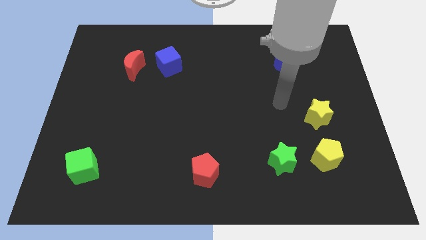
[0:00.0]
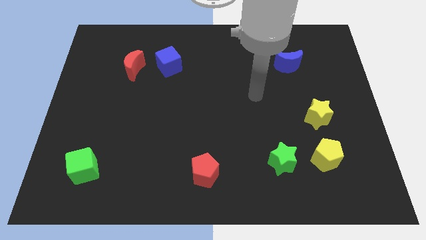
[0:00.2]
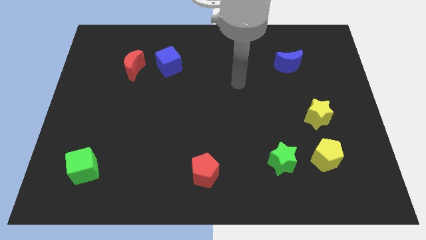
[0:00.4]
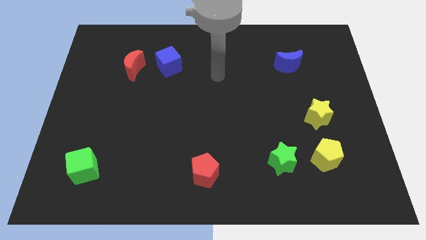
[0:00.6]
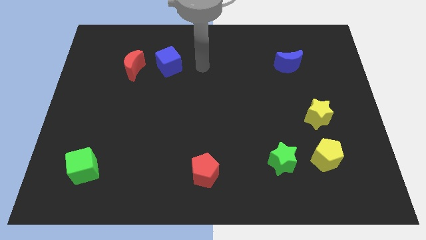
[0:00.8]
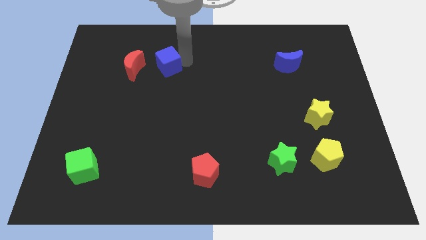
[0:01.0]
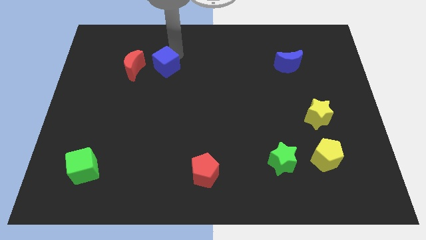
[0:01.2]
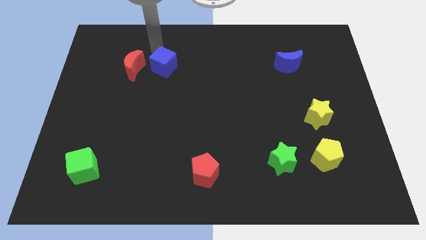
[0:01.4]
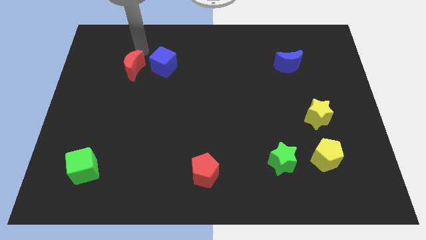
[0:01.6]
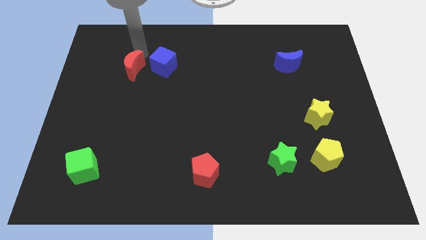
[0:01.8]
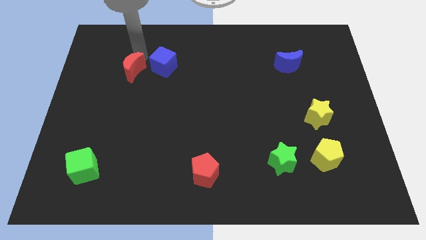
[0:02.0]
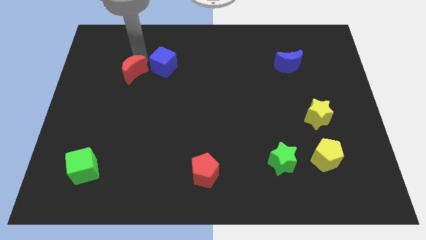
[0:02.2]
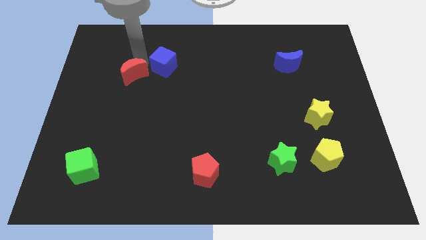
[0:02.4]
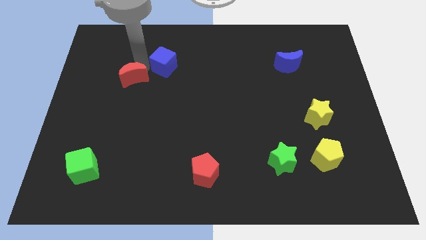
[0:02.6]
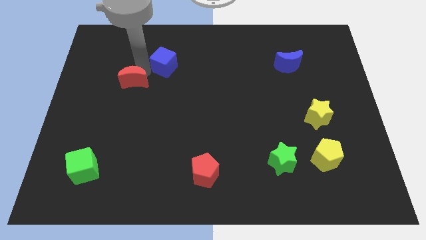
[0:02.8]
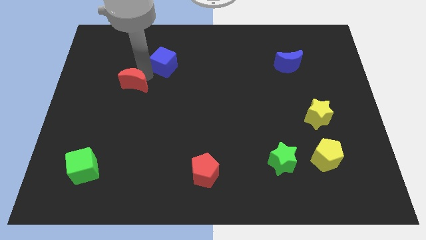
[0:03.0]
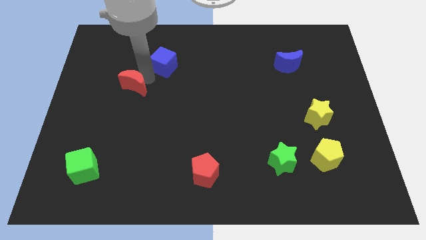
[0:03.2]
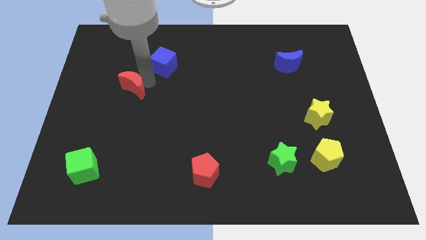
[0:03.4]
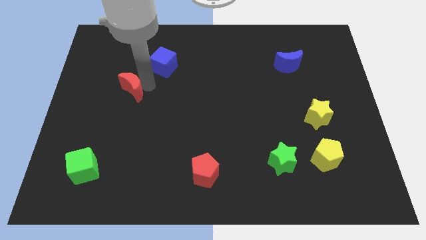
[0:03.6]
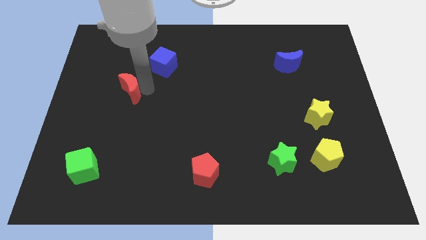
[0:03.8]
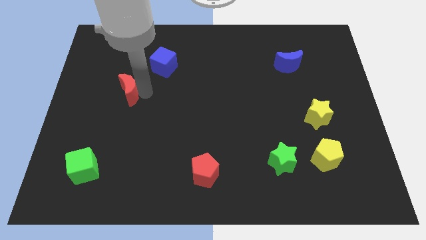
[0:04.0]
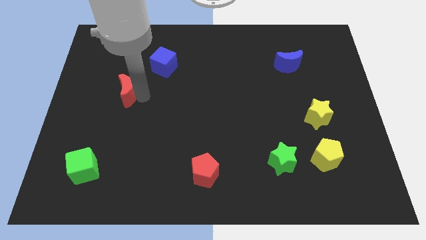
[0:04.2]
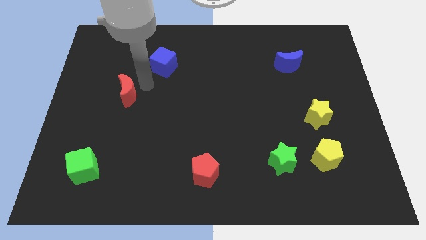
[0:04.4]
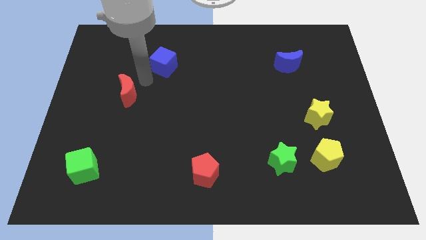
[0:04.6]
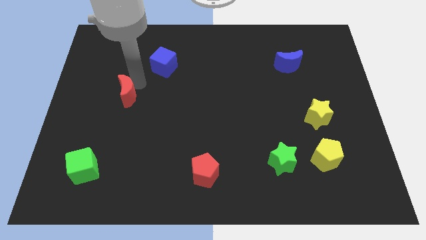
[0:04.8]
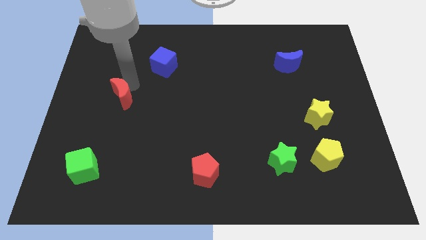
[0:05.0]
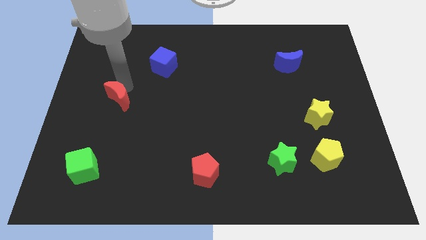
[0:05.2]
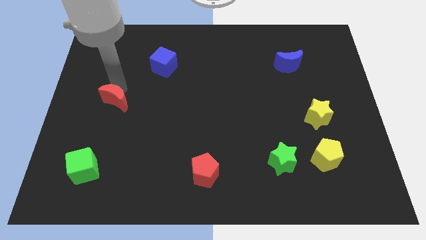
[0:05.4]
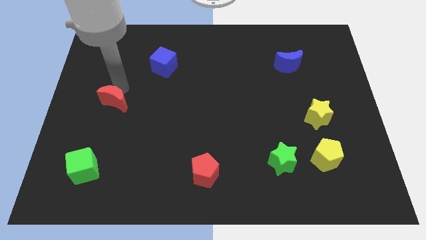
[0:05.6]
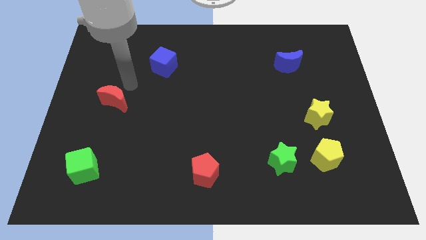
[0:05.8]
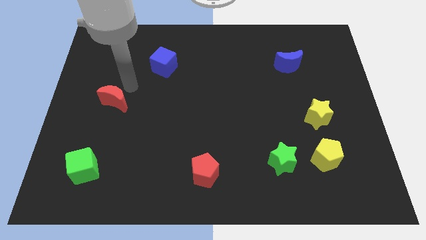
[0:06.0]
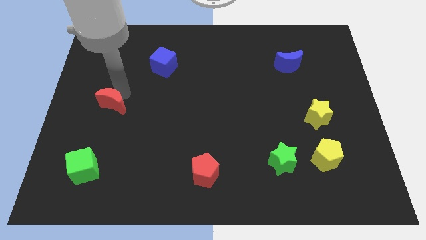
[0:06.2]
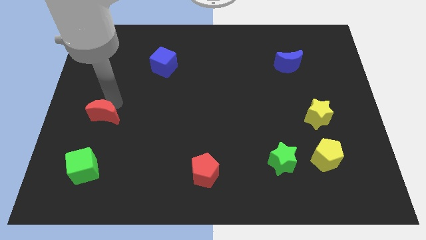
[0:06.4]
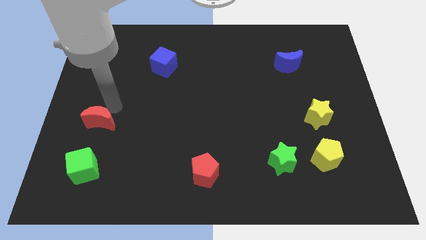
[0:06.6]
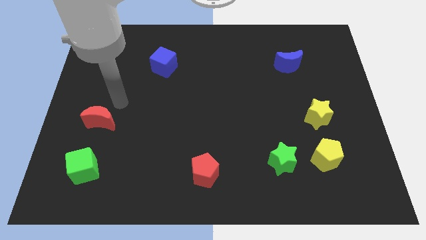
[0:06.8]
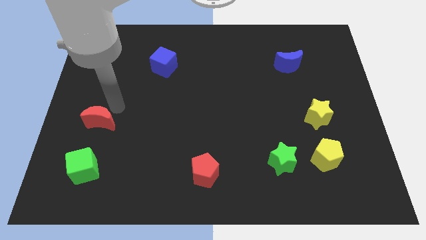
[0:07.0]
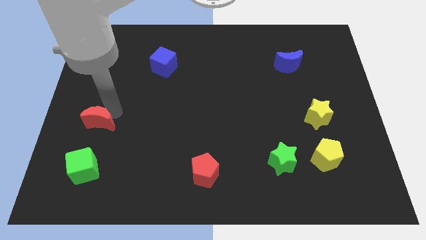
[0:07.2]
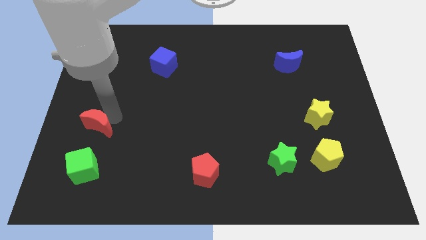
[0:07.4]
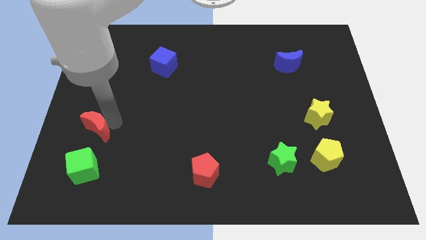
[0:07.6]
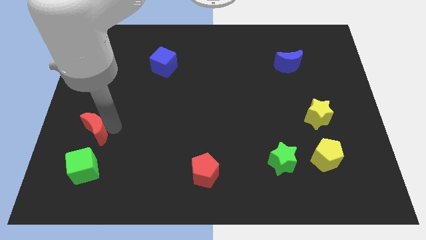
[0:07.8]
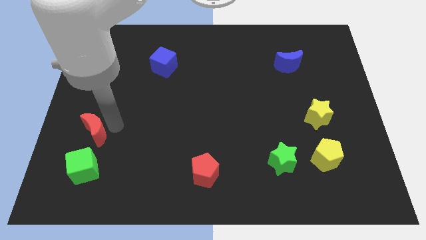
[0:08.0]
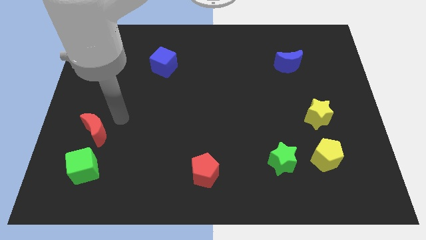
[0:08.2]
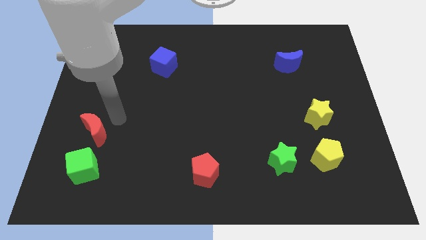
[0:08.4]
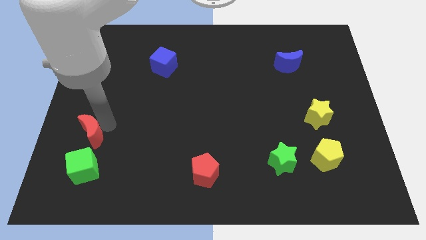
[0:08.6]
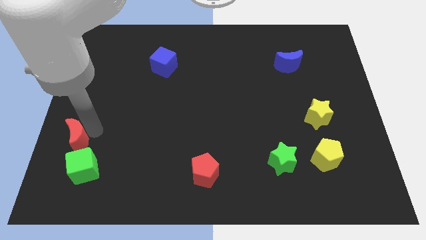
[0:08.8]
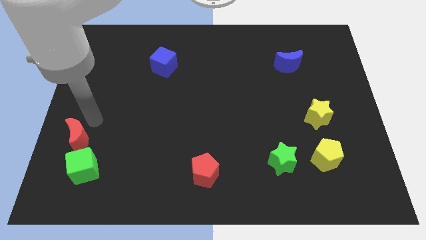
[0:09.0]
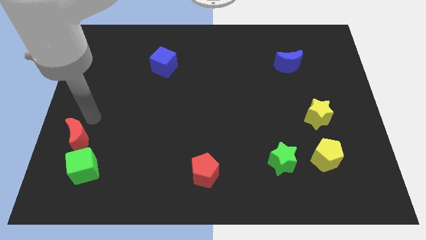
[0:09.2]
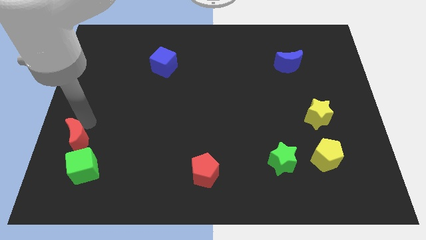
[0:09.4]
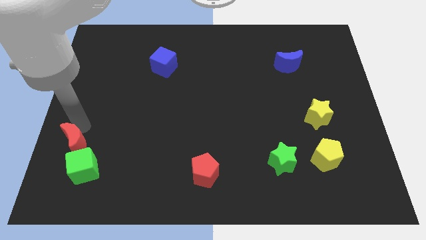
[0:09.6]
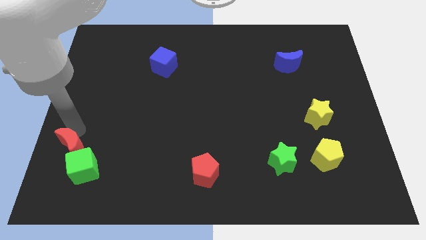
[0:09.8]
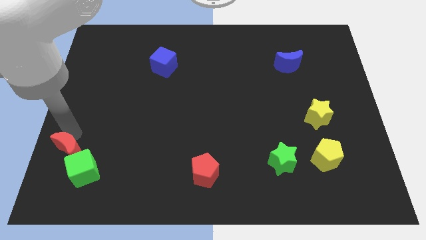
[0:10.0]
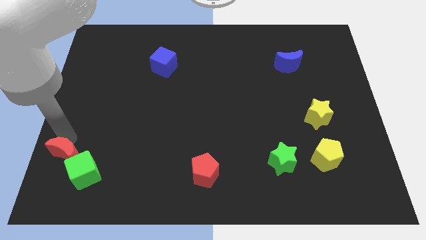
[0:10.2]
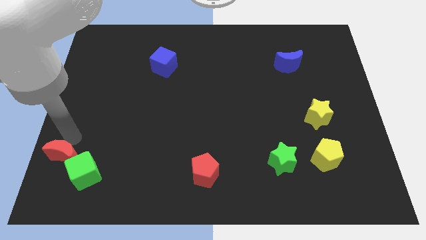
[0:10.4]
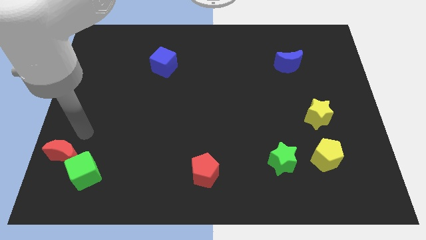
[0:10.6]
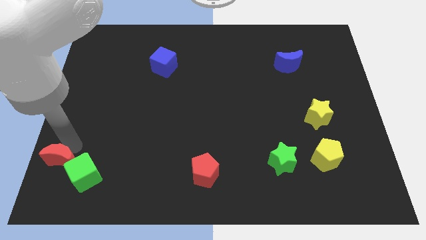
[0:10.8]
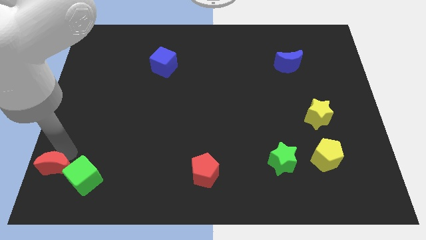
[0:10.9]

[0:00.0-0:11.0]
move the red moon to the bottom left
